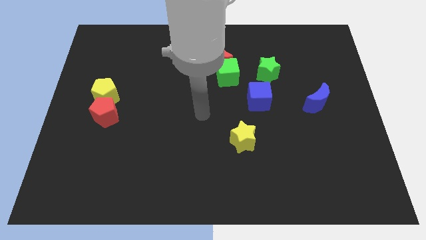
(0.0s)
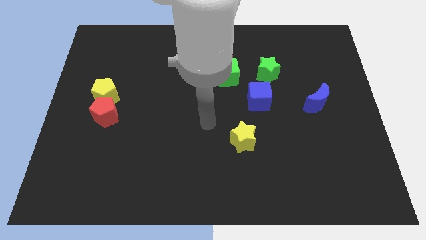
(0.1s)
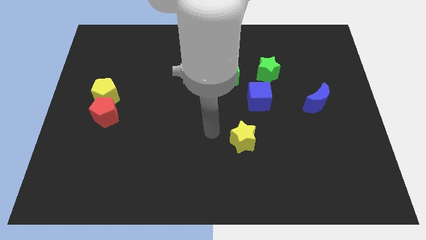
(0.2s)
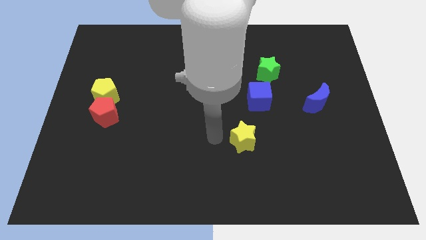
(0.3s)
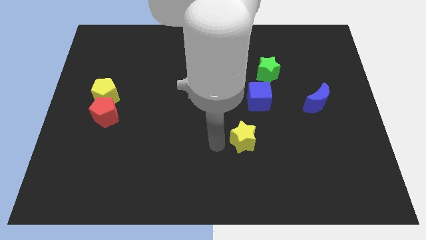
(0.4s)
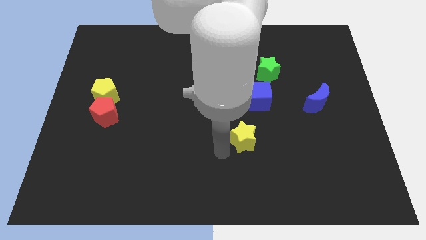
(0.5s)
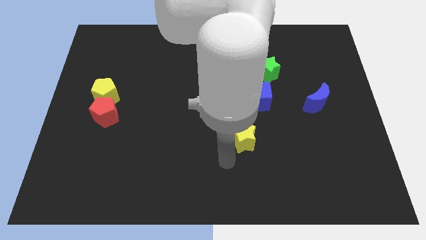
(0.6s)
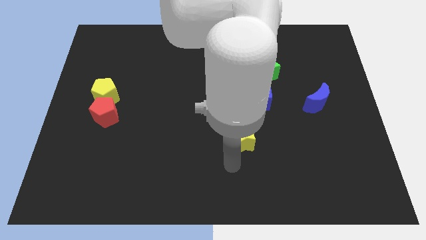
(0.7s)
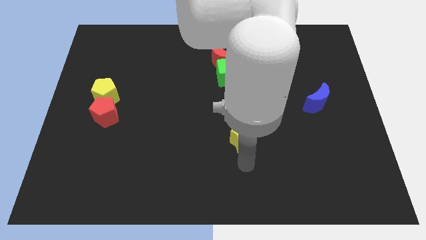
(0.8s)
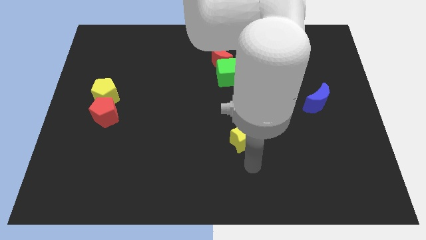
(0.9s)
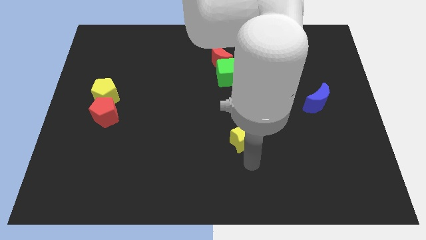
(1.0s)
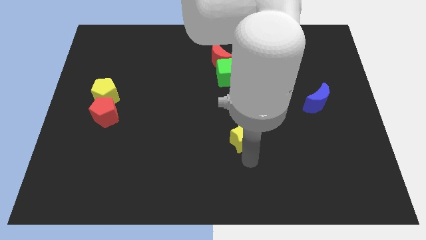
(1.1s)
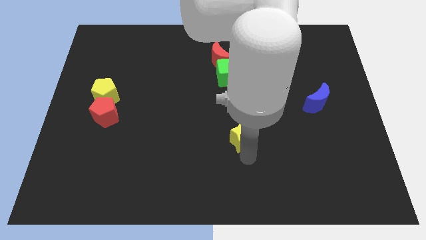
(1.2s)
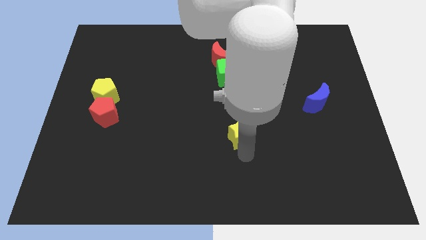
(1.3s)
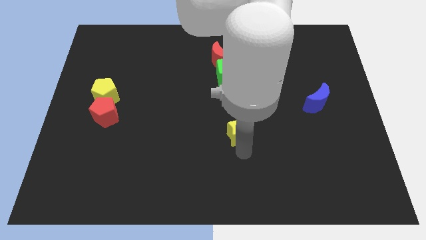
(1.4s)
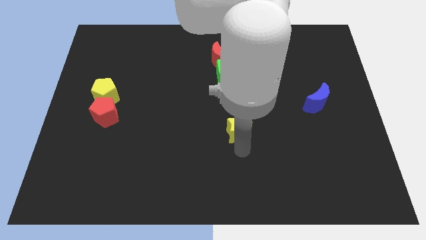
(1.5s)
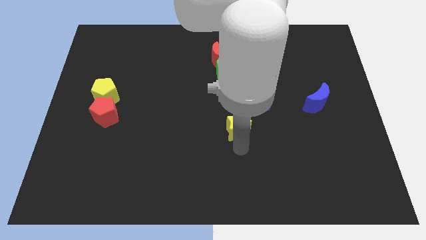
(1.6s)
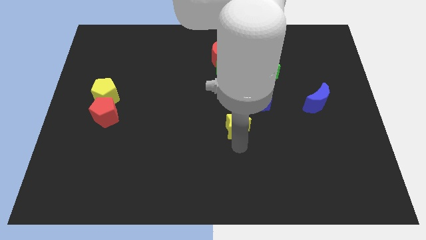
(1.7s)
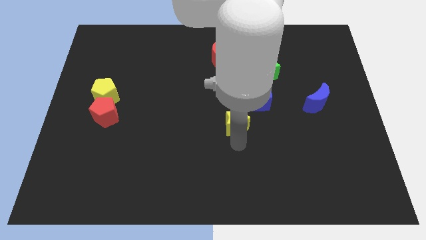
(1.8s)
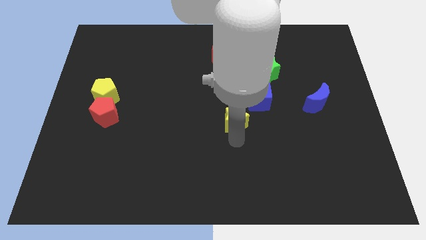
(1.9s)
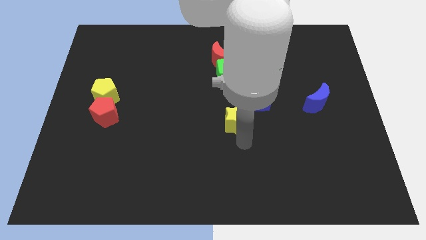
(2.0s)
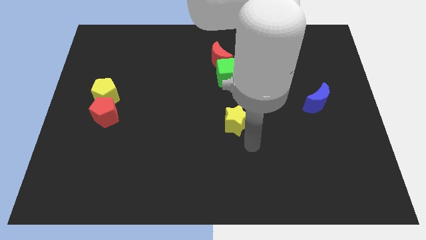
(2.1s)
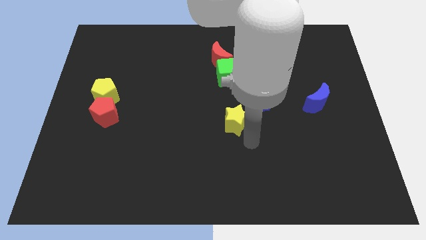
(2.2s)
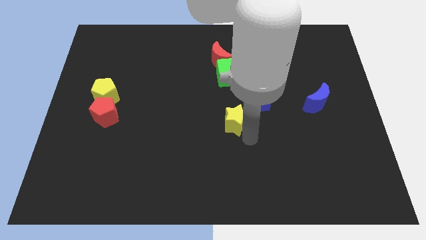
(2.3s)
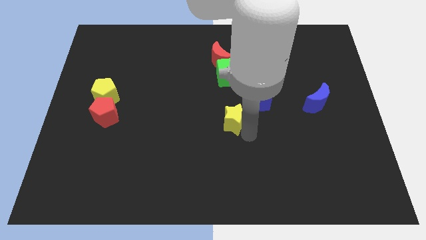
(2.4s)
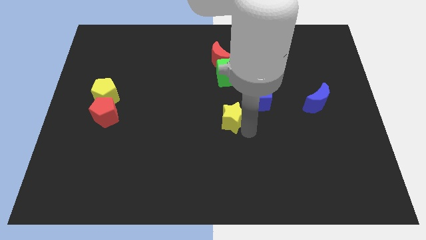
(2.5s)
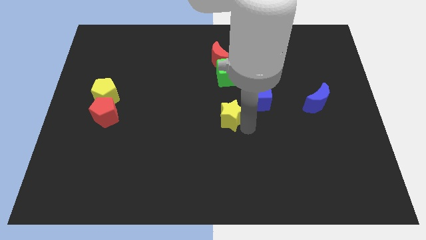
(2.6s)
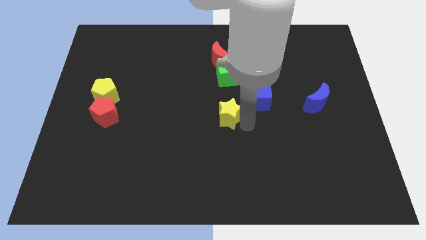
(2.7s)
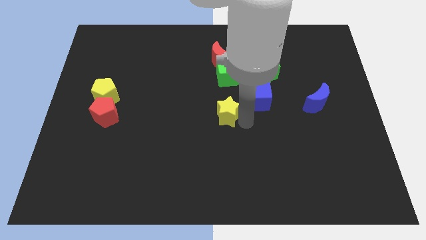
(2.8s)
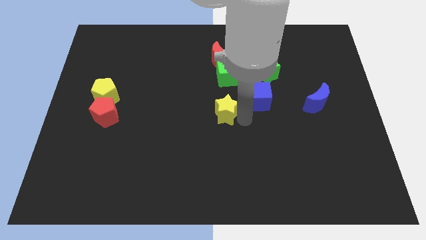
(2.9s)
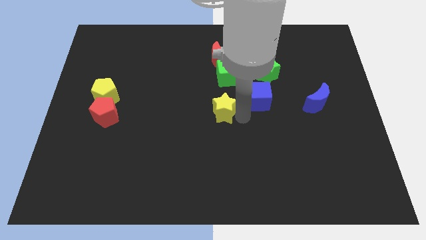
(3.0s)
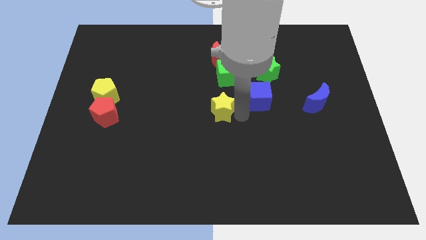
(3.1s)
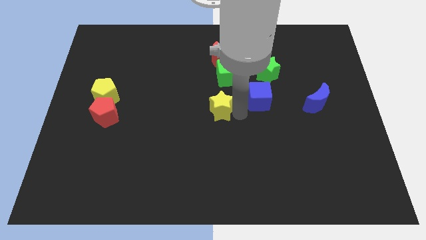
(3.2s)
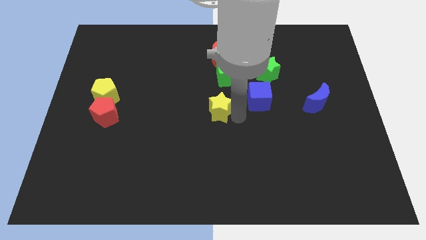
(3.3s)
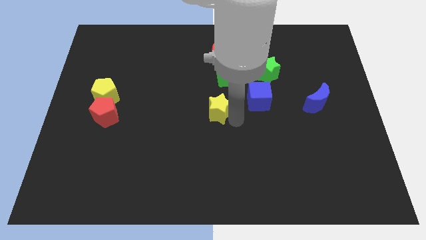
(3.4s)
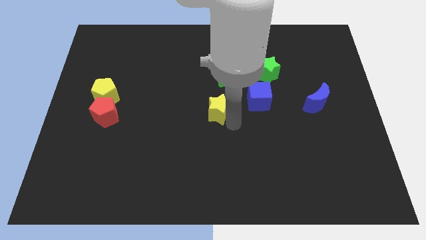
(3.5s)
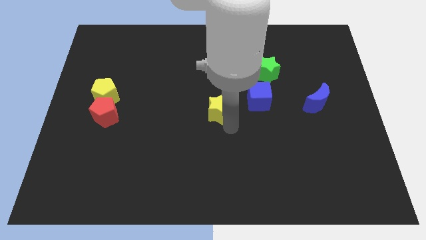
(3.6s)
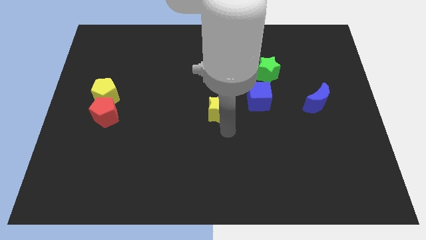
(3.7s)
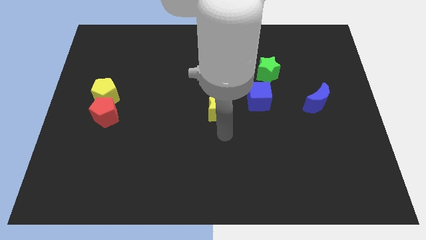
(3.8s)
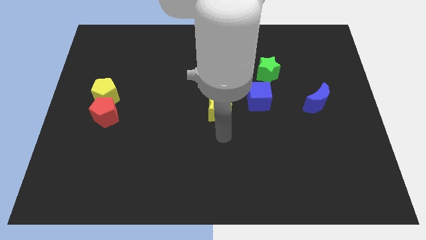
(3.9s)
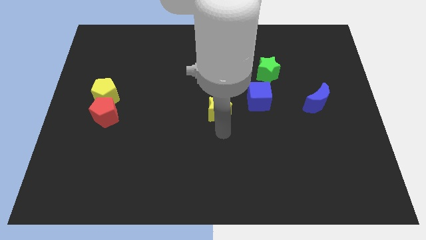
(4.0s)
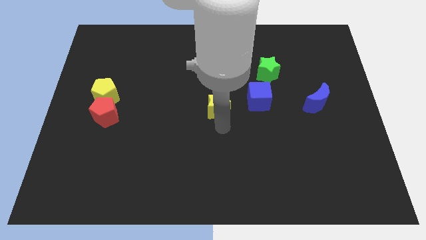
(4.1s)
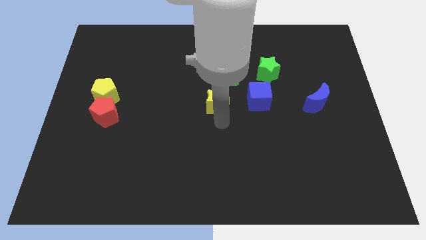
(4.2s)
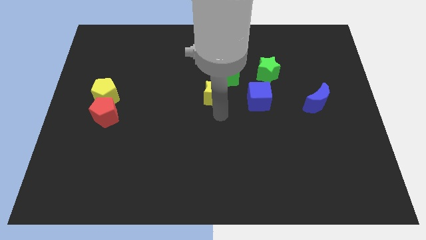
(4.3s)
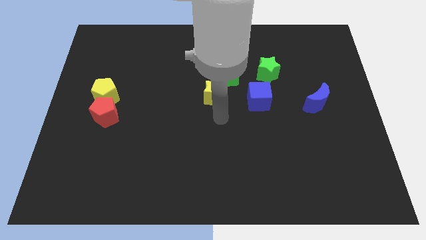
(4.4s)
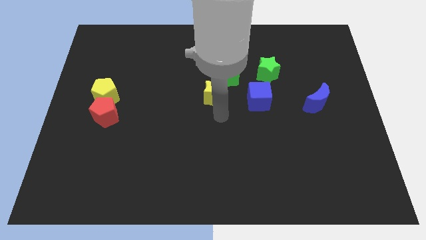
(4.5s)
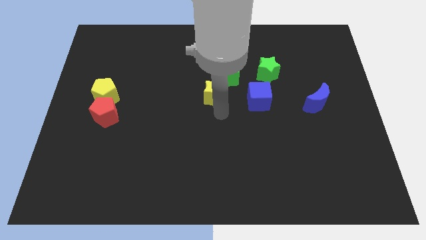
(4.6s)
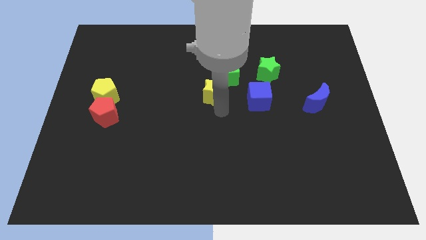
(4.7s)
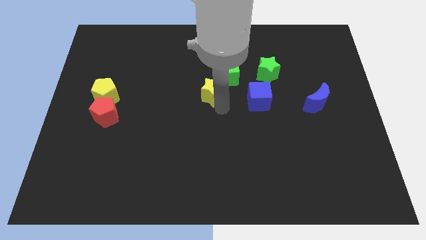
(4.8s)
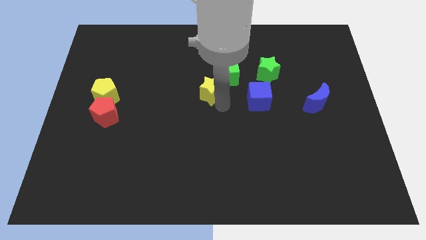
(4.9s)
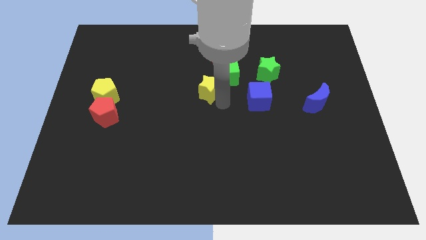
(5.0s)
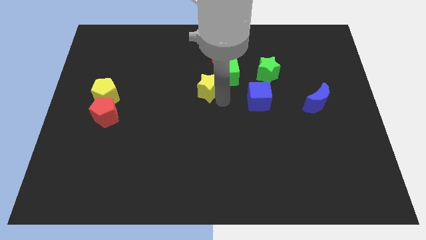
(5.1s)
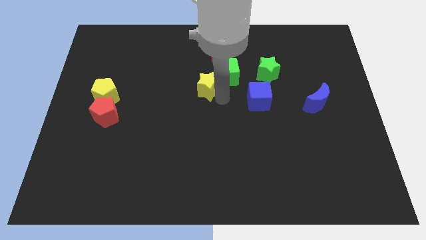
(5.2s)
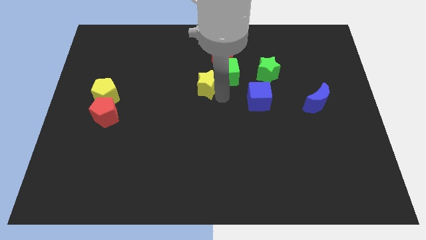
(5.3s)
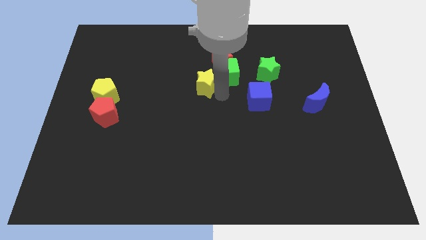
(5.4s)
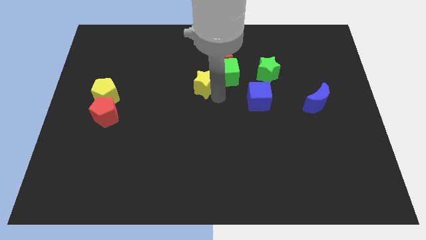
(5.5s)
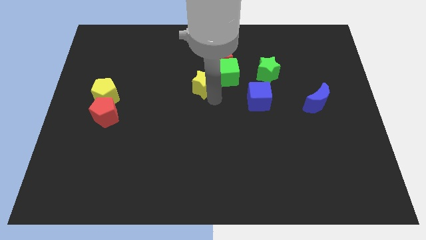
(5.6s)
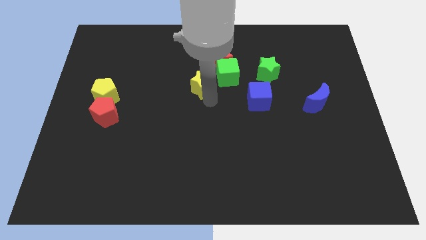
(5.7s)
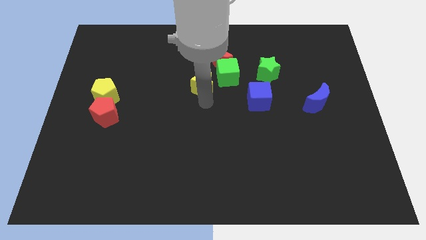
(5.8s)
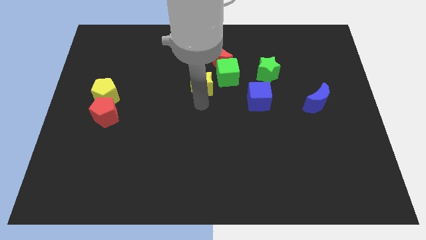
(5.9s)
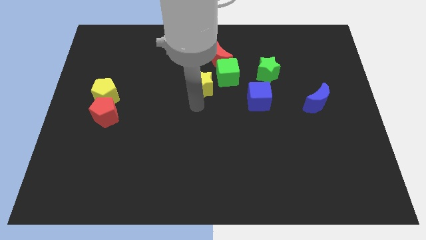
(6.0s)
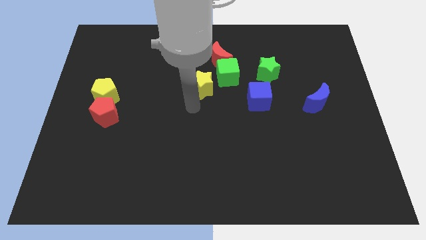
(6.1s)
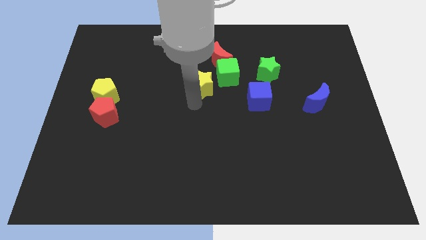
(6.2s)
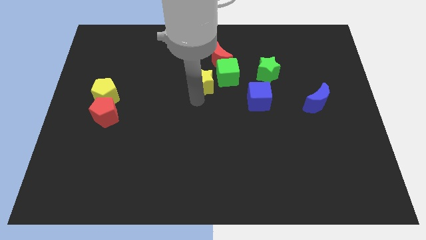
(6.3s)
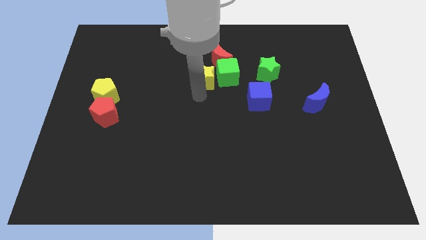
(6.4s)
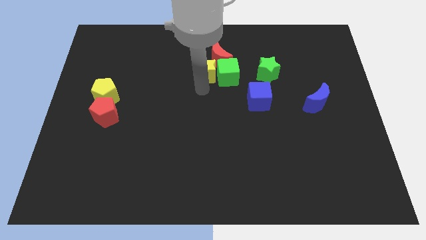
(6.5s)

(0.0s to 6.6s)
slide the yellow star to the red moon

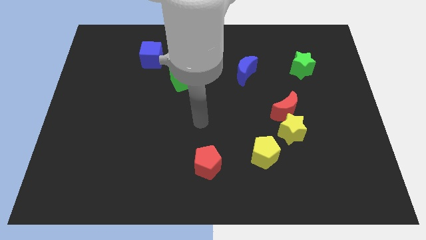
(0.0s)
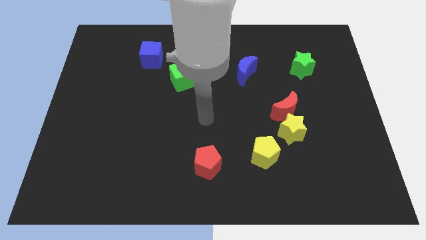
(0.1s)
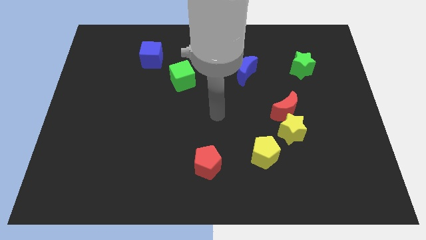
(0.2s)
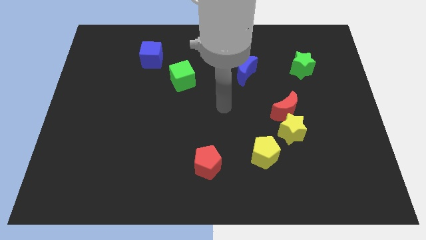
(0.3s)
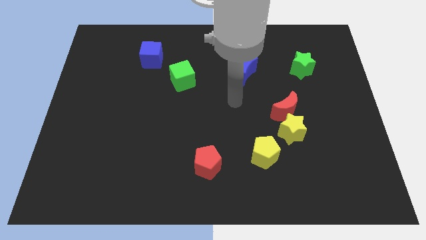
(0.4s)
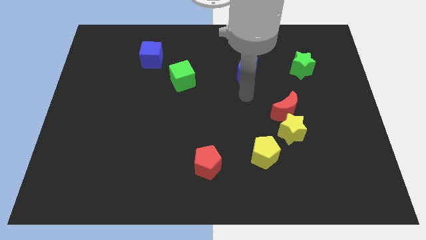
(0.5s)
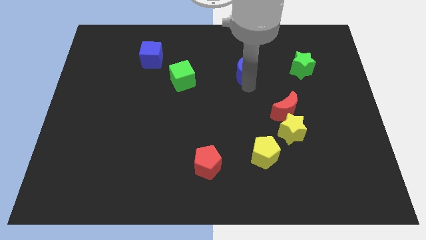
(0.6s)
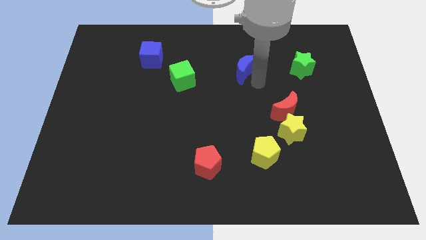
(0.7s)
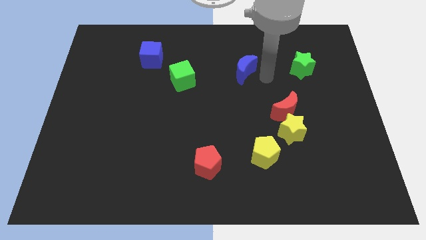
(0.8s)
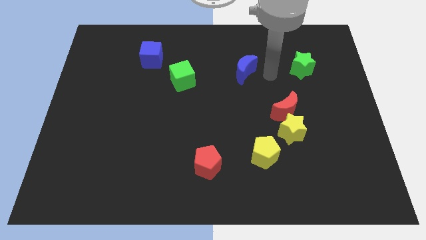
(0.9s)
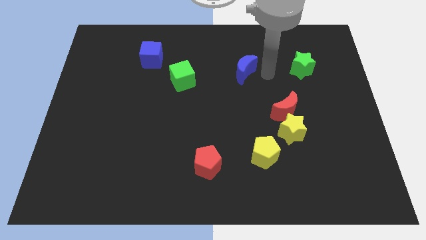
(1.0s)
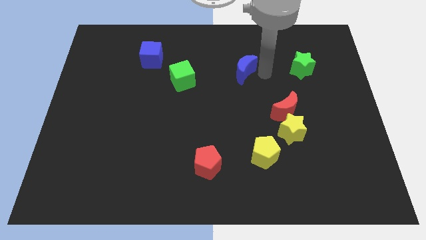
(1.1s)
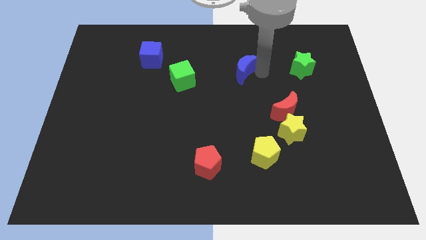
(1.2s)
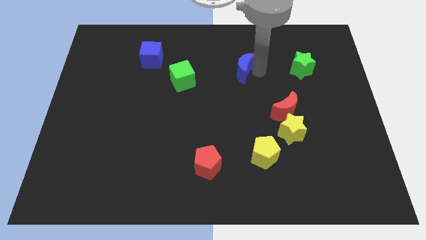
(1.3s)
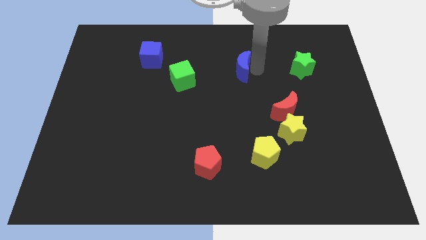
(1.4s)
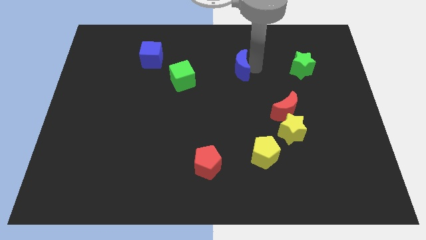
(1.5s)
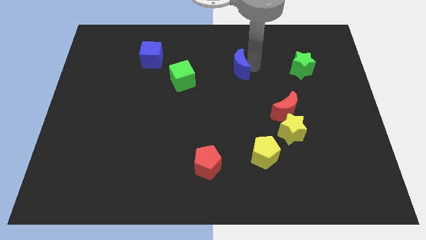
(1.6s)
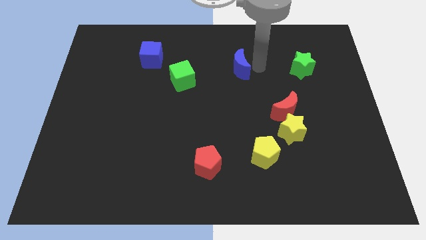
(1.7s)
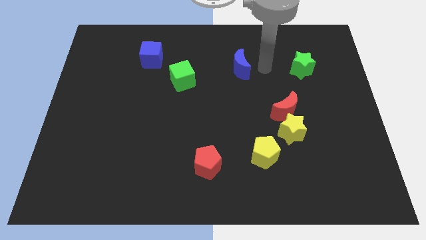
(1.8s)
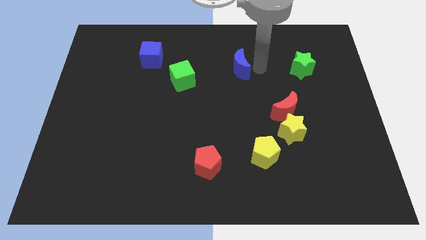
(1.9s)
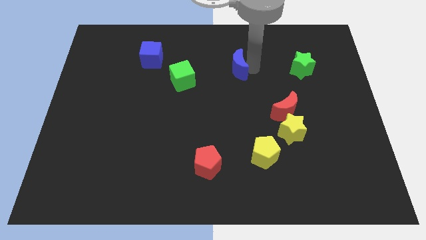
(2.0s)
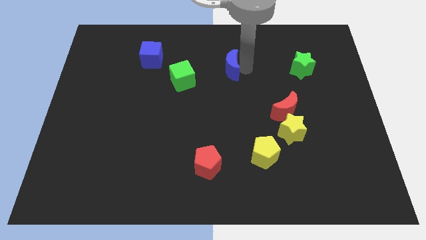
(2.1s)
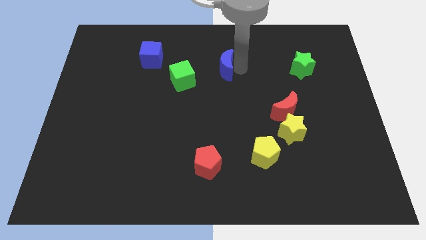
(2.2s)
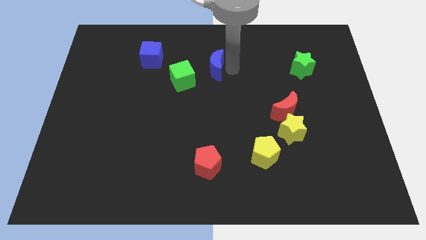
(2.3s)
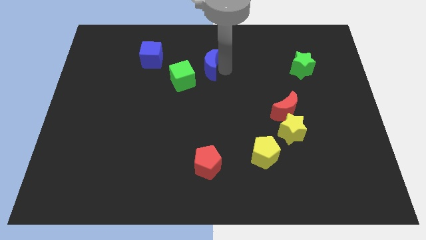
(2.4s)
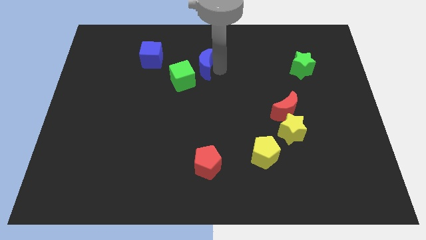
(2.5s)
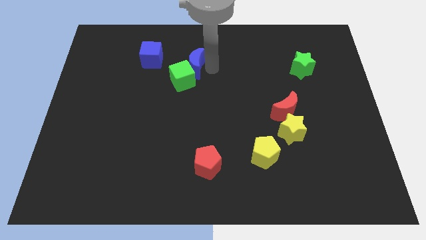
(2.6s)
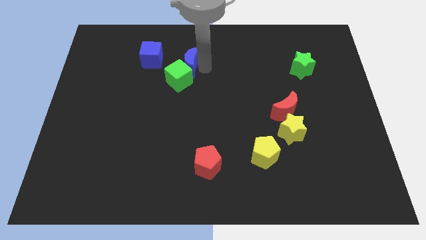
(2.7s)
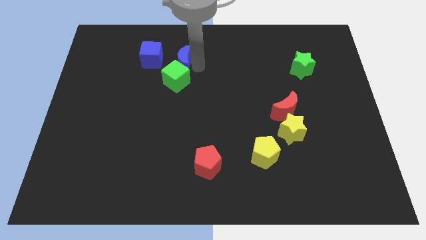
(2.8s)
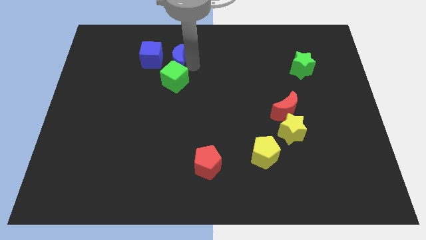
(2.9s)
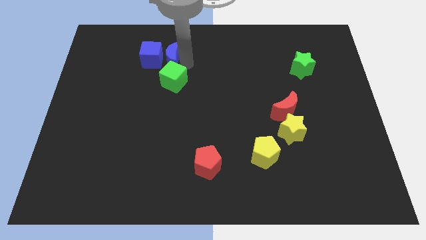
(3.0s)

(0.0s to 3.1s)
move the blue moon next to the blue cube
